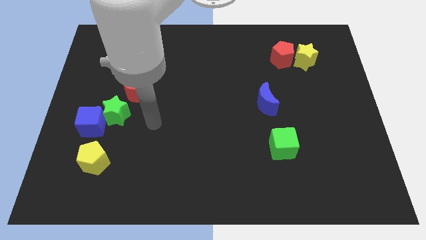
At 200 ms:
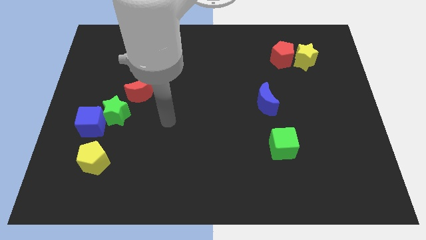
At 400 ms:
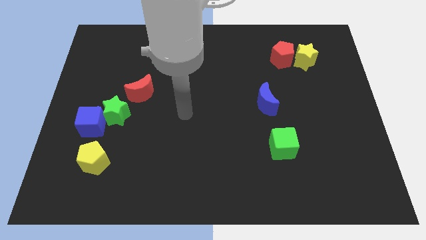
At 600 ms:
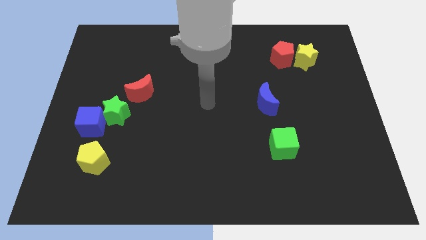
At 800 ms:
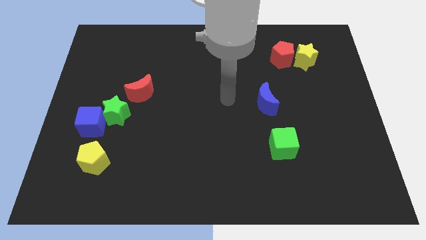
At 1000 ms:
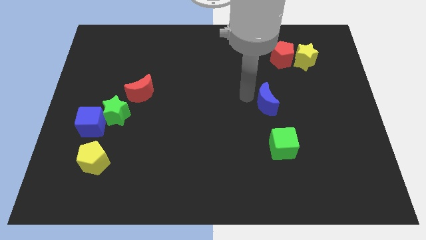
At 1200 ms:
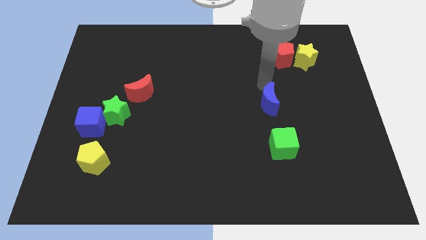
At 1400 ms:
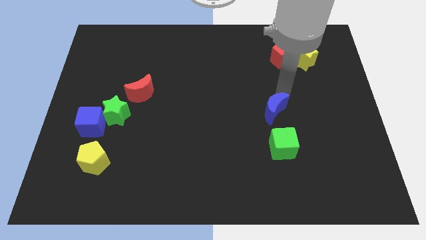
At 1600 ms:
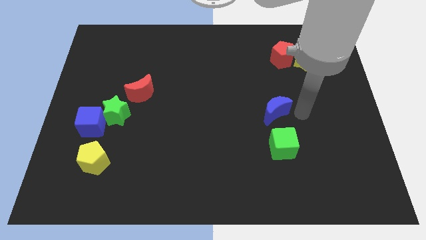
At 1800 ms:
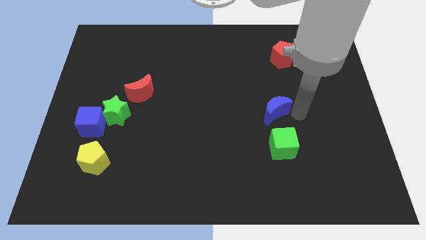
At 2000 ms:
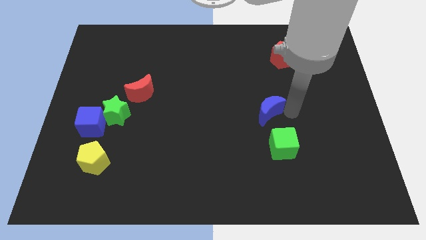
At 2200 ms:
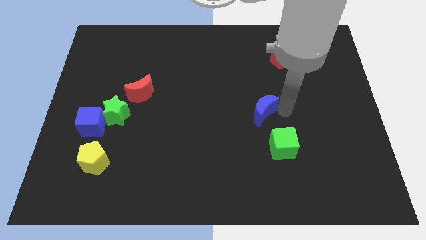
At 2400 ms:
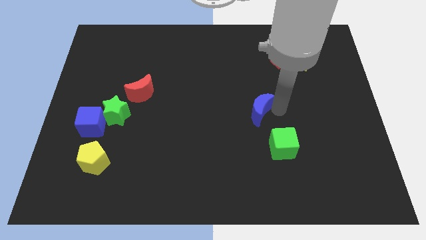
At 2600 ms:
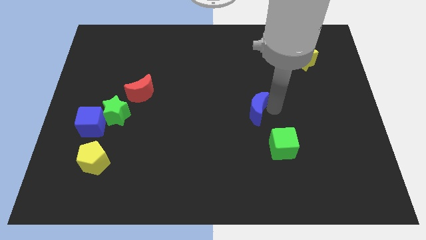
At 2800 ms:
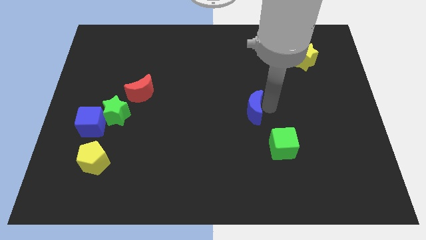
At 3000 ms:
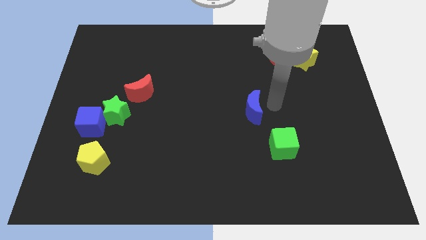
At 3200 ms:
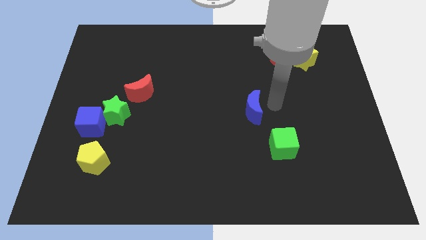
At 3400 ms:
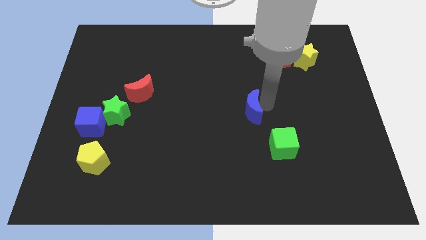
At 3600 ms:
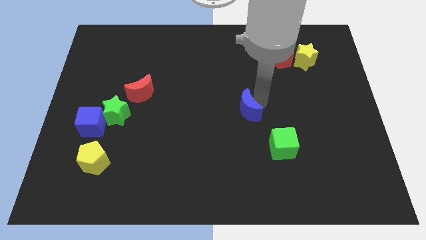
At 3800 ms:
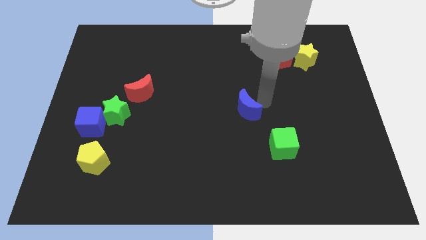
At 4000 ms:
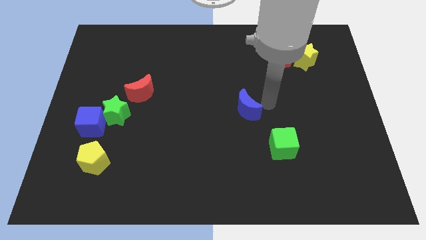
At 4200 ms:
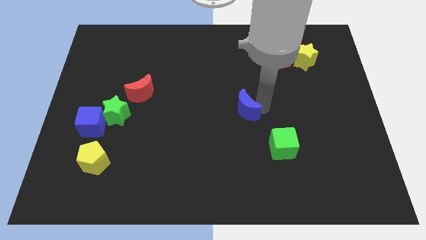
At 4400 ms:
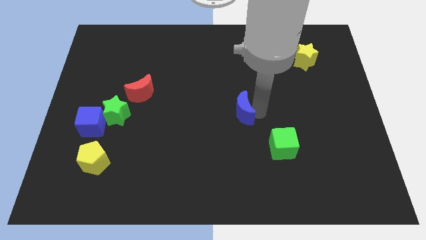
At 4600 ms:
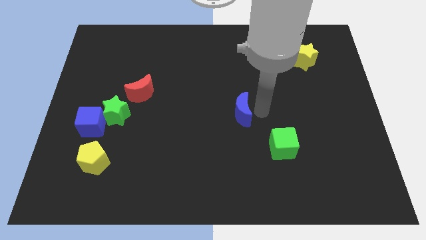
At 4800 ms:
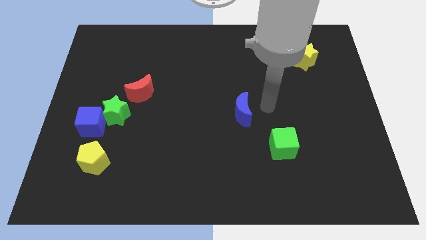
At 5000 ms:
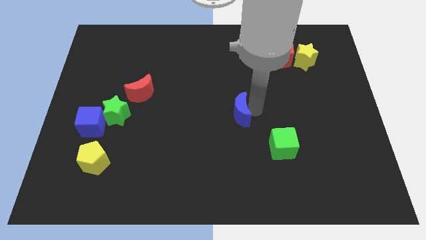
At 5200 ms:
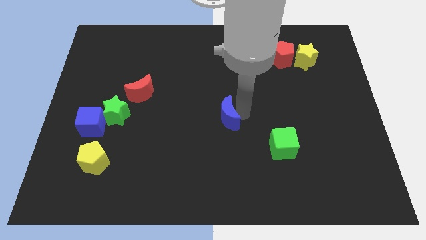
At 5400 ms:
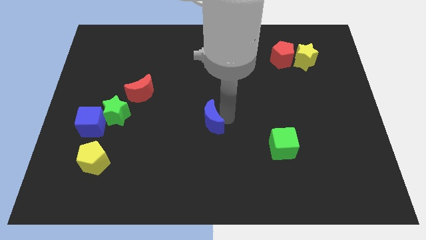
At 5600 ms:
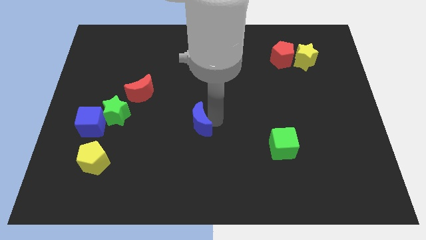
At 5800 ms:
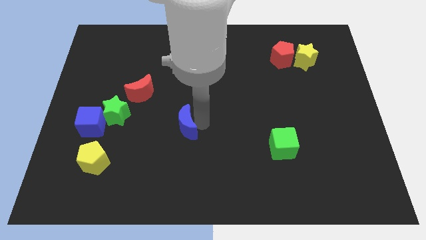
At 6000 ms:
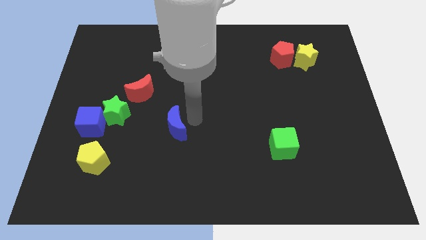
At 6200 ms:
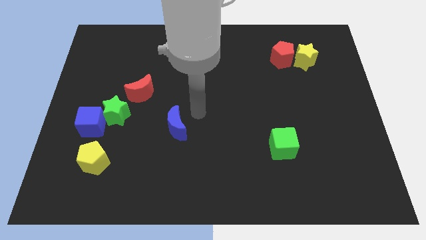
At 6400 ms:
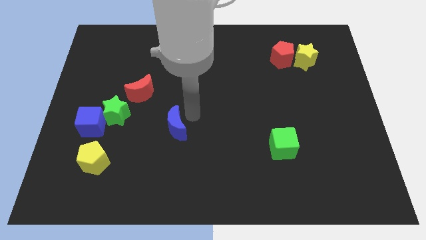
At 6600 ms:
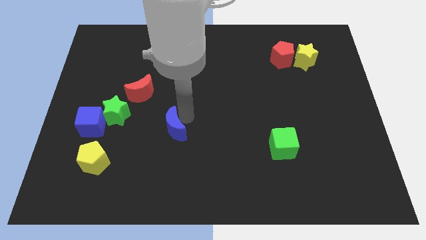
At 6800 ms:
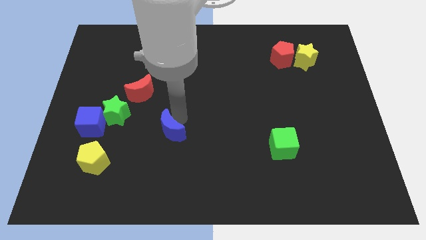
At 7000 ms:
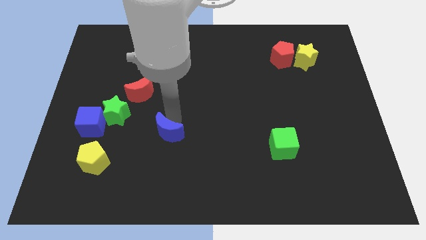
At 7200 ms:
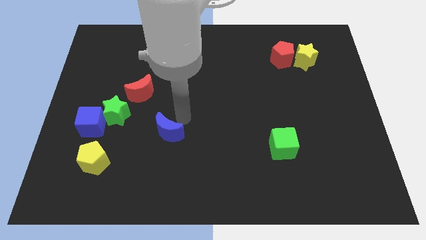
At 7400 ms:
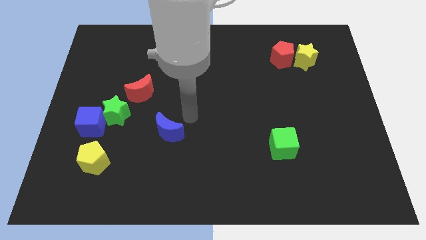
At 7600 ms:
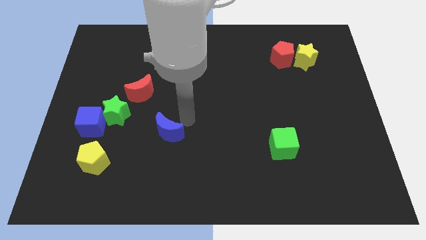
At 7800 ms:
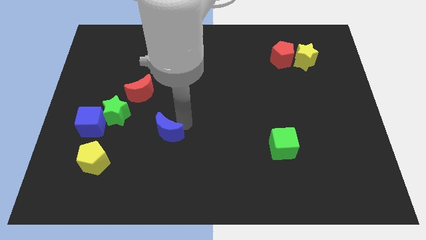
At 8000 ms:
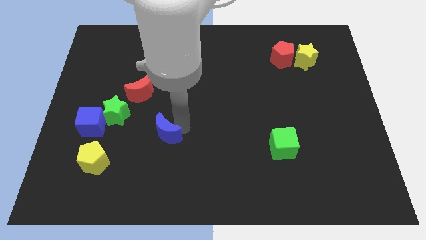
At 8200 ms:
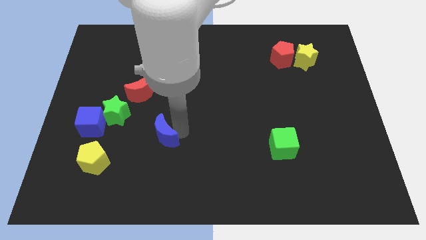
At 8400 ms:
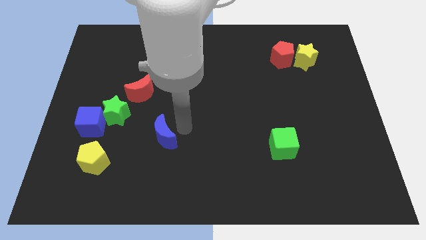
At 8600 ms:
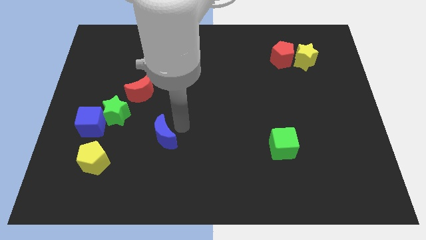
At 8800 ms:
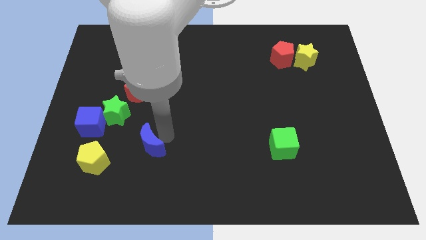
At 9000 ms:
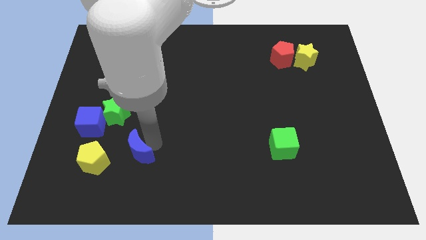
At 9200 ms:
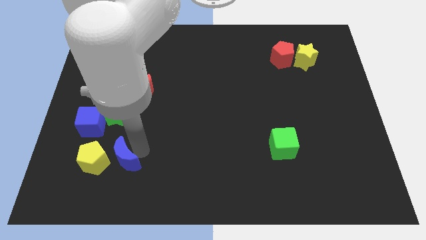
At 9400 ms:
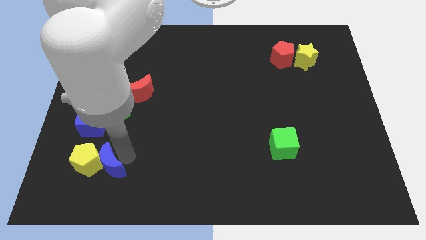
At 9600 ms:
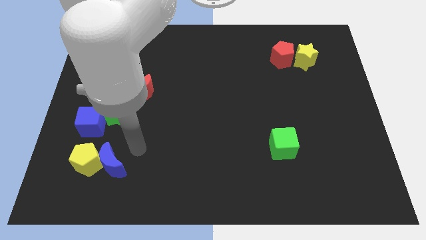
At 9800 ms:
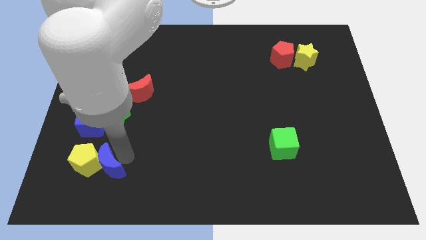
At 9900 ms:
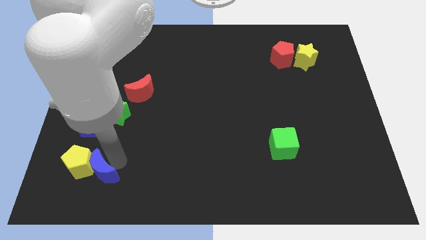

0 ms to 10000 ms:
move the blue moon to the bottom of the blue cube

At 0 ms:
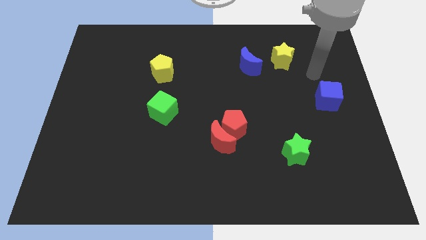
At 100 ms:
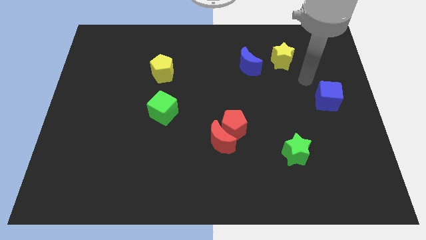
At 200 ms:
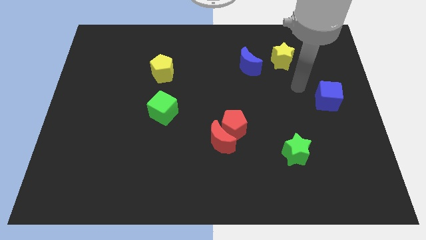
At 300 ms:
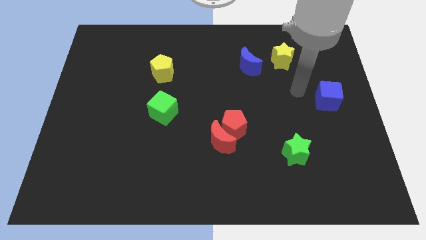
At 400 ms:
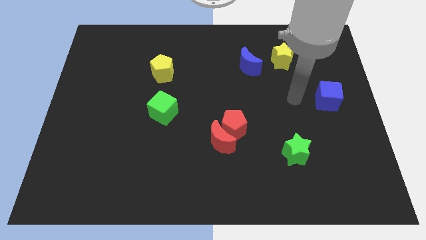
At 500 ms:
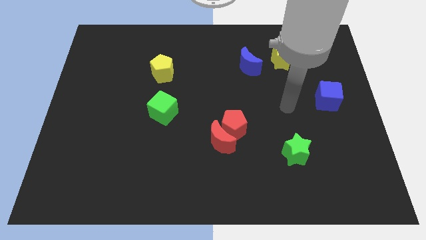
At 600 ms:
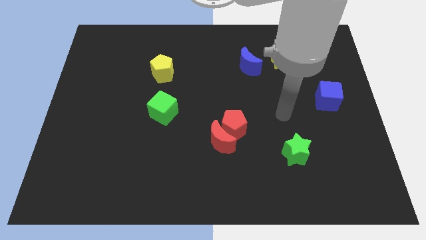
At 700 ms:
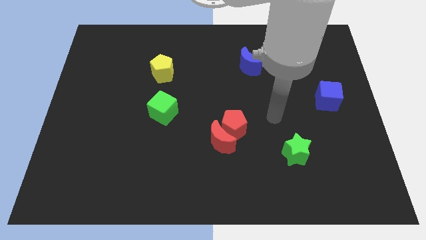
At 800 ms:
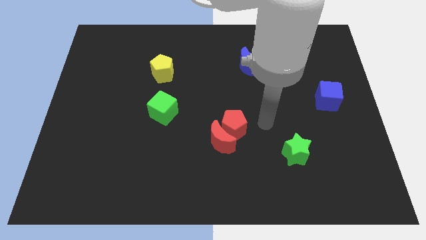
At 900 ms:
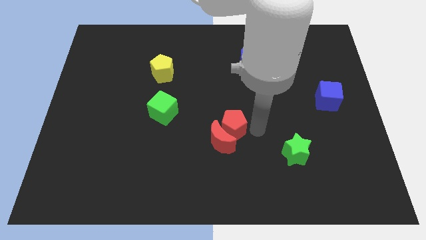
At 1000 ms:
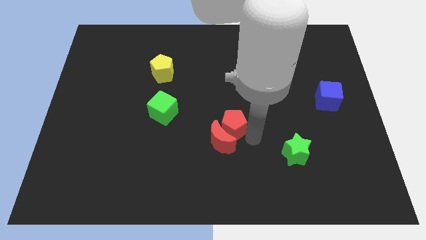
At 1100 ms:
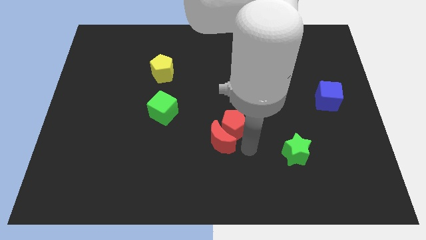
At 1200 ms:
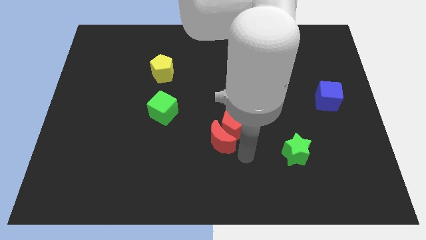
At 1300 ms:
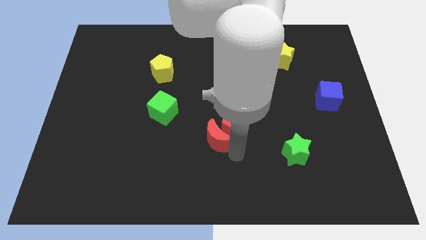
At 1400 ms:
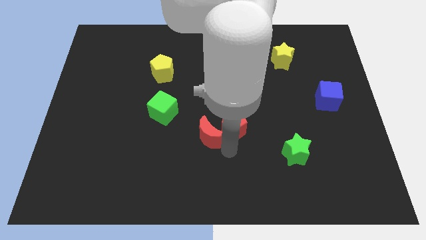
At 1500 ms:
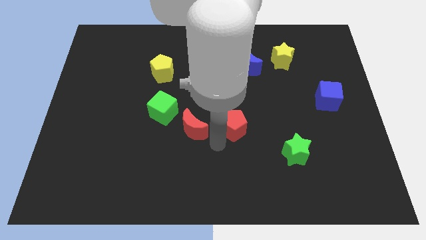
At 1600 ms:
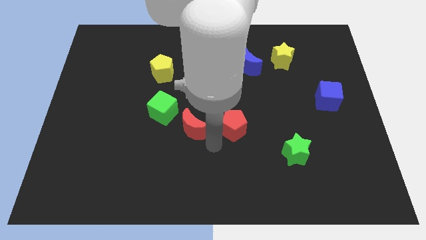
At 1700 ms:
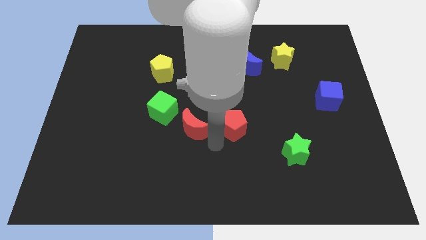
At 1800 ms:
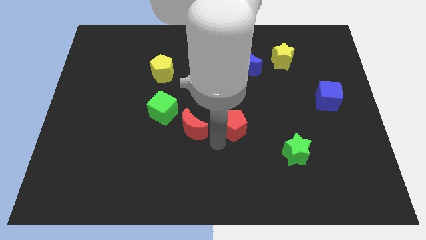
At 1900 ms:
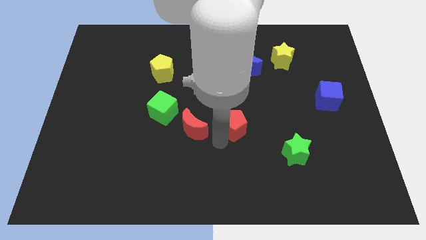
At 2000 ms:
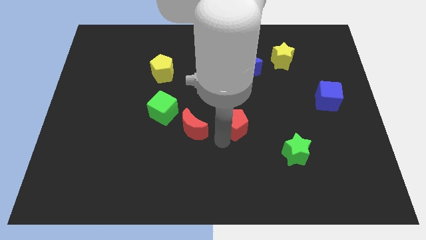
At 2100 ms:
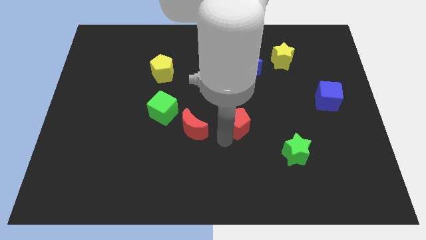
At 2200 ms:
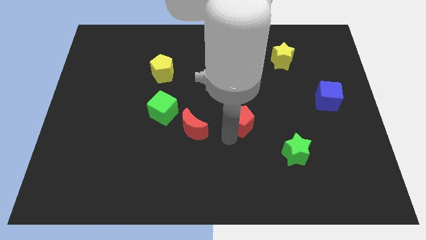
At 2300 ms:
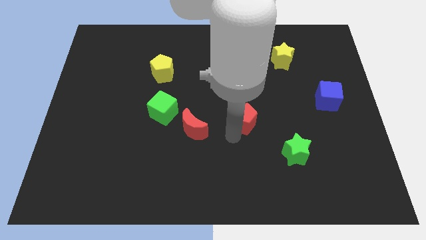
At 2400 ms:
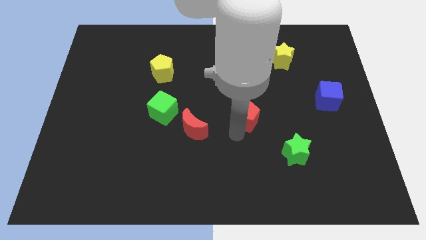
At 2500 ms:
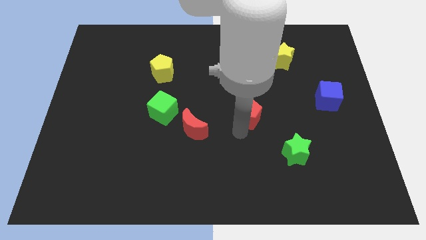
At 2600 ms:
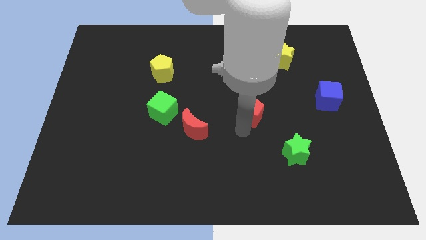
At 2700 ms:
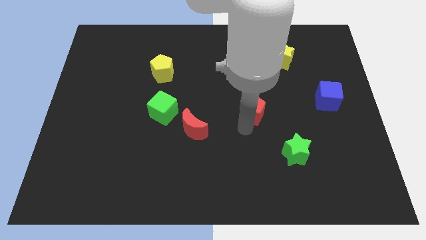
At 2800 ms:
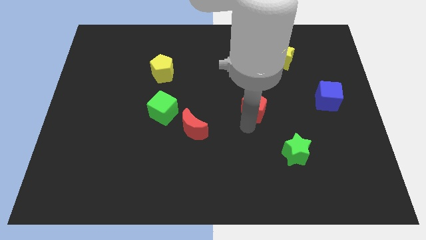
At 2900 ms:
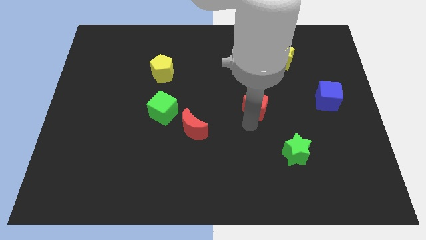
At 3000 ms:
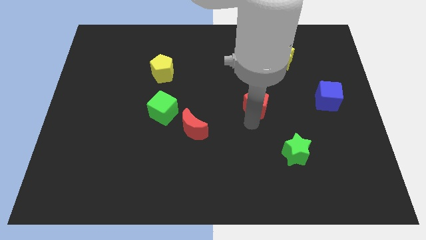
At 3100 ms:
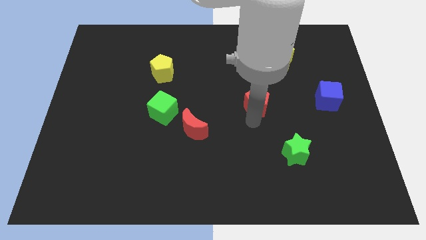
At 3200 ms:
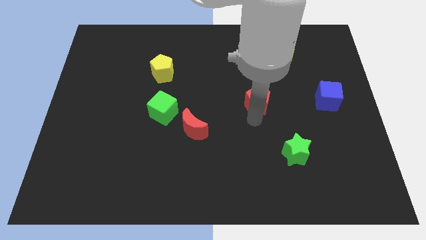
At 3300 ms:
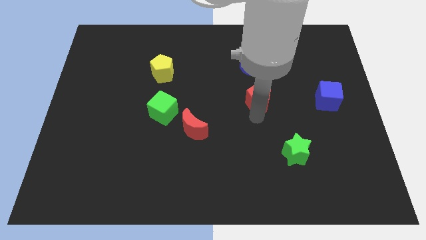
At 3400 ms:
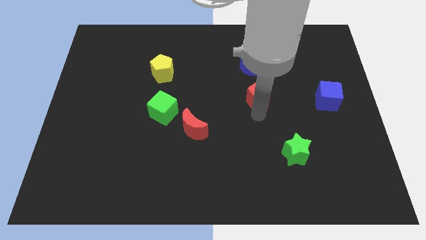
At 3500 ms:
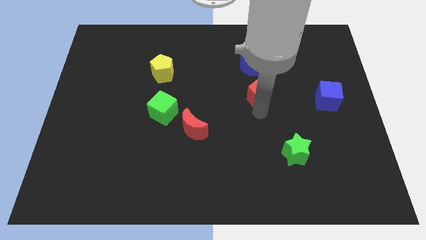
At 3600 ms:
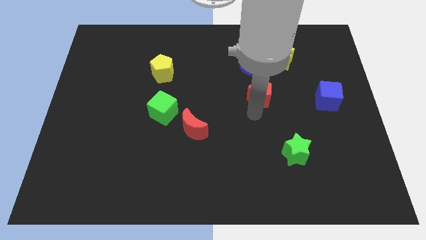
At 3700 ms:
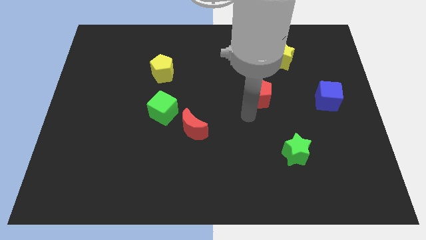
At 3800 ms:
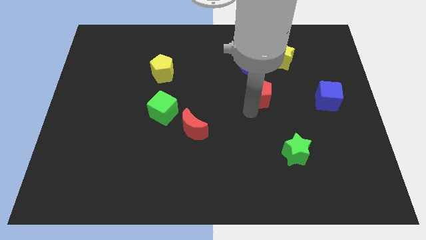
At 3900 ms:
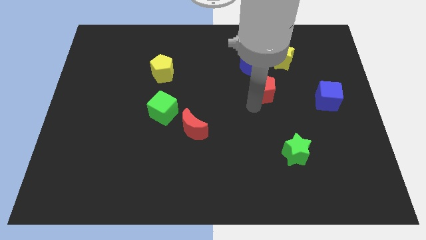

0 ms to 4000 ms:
put the red pentagon to the bottom right of the blue moon
